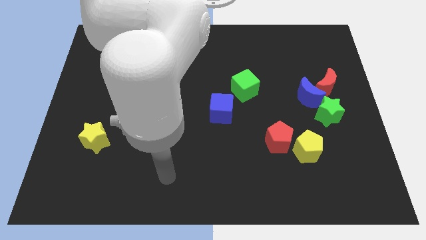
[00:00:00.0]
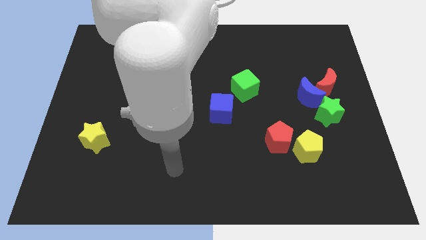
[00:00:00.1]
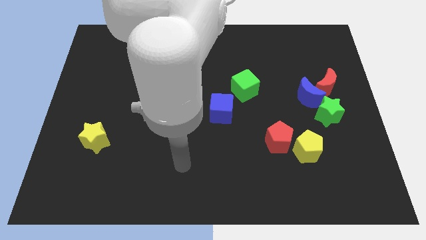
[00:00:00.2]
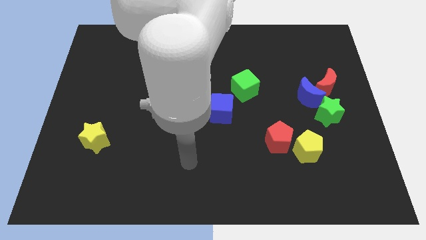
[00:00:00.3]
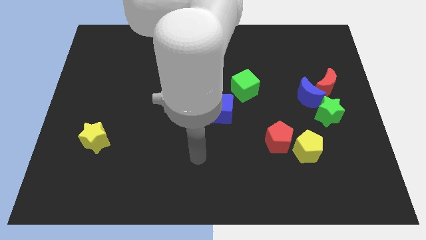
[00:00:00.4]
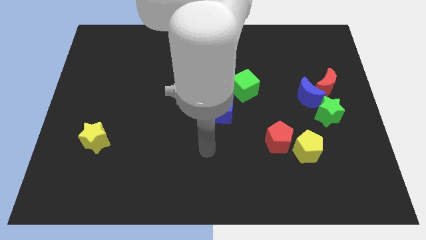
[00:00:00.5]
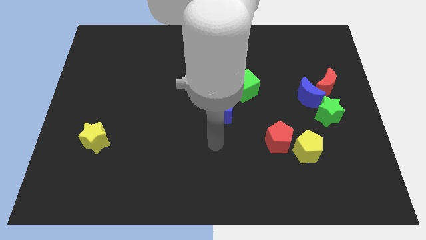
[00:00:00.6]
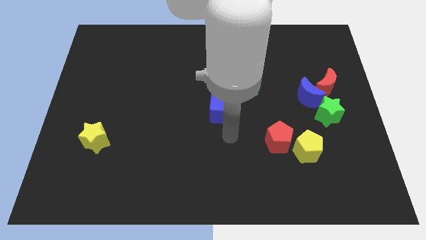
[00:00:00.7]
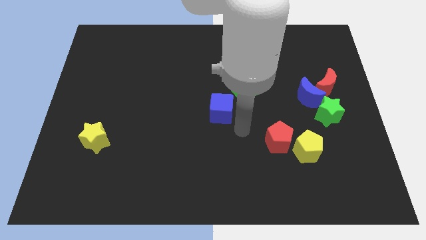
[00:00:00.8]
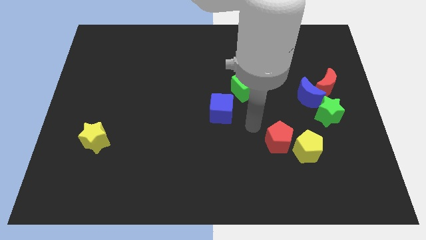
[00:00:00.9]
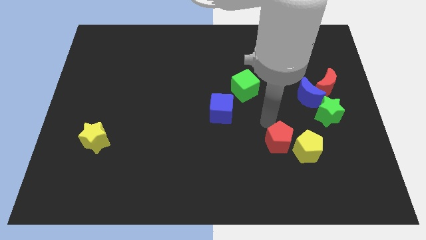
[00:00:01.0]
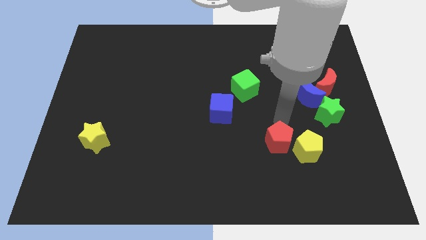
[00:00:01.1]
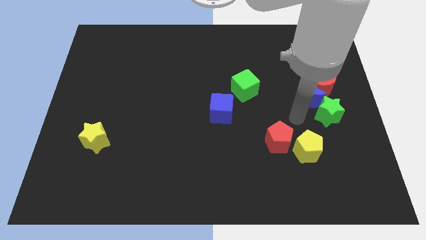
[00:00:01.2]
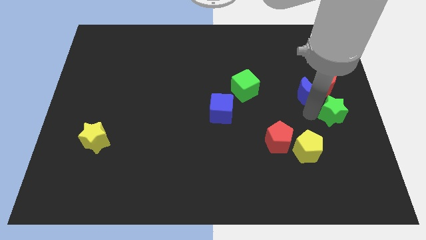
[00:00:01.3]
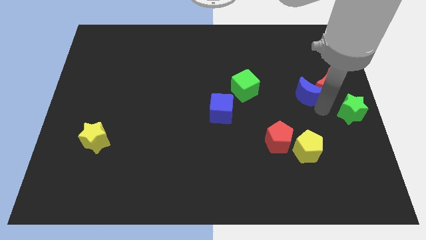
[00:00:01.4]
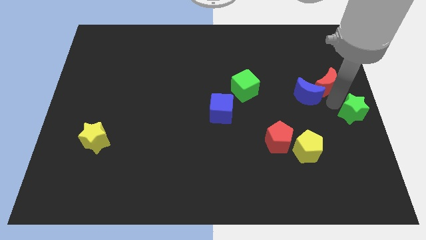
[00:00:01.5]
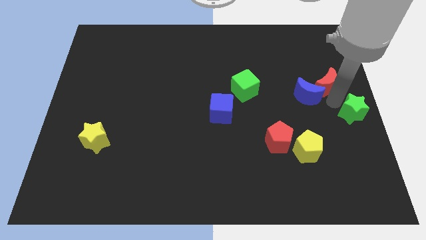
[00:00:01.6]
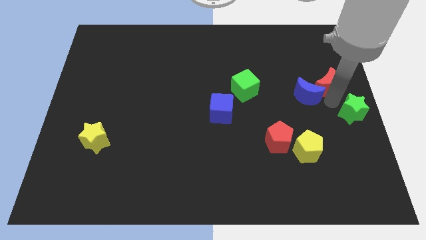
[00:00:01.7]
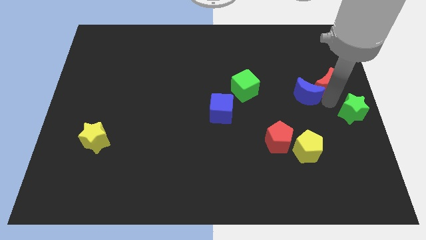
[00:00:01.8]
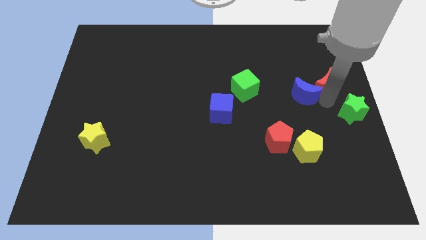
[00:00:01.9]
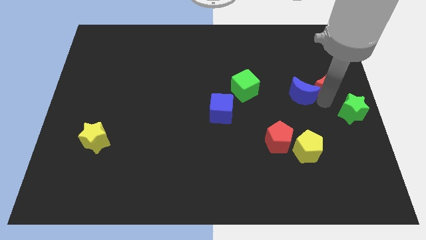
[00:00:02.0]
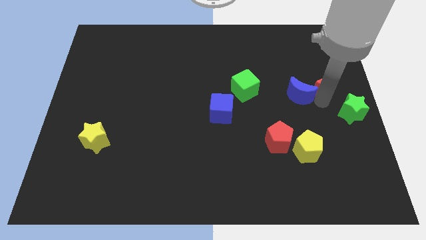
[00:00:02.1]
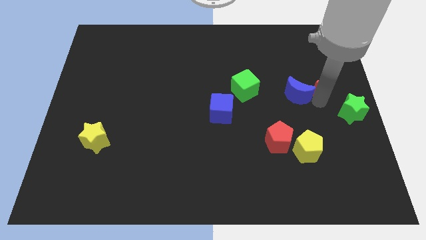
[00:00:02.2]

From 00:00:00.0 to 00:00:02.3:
pull the blue moon apart from the red moon and green star

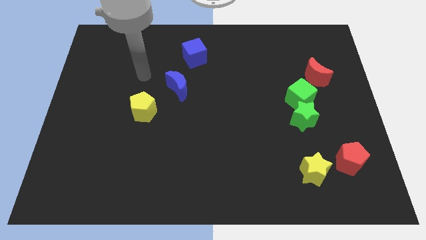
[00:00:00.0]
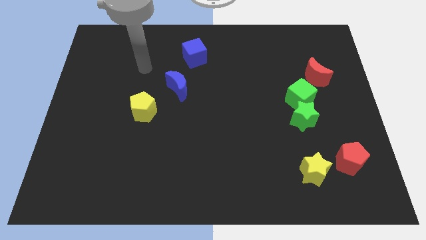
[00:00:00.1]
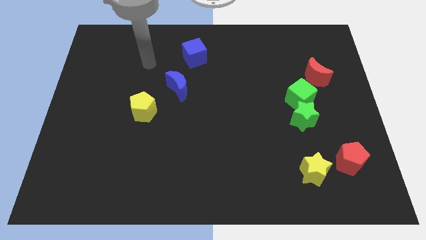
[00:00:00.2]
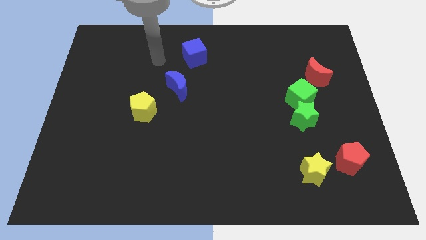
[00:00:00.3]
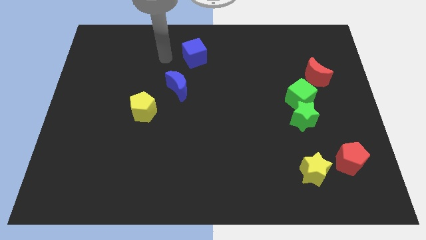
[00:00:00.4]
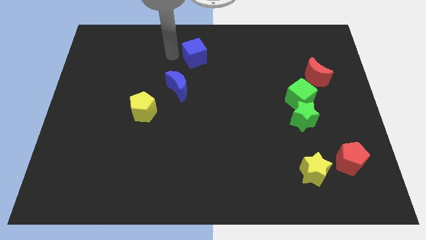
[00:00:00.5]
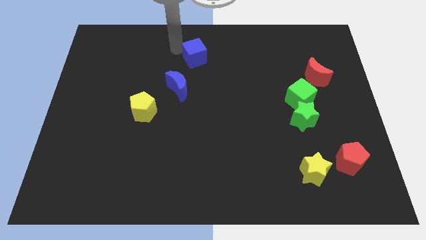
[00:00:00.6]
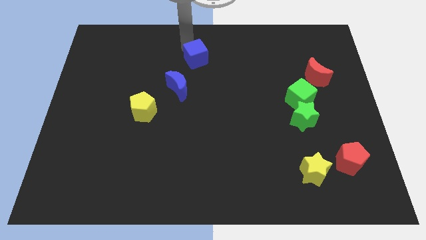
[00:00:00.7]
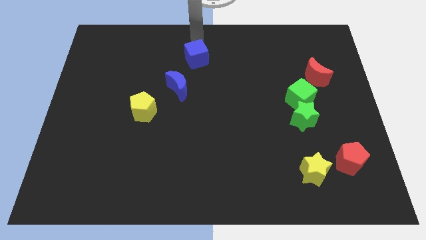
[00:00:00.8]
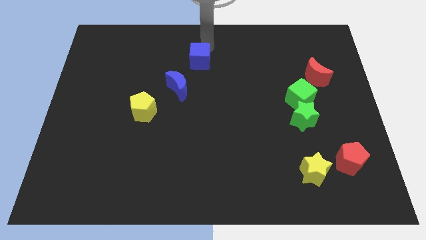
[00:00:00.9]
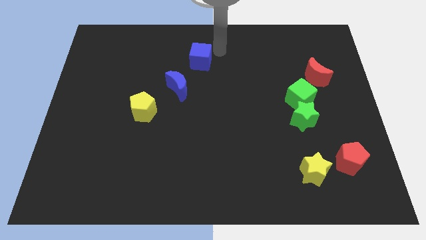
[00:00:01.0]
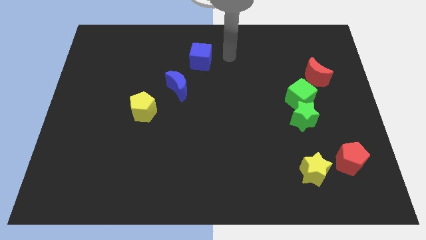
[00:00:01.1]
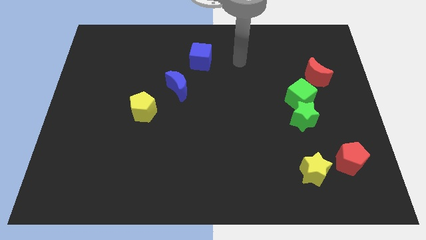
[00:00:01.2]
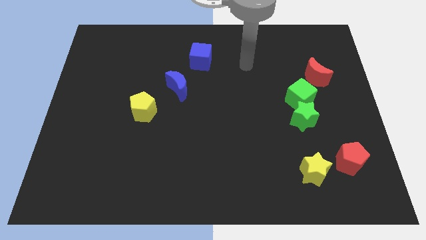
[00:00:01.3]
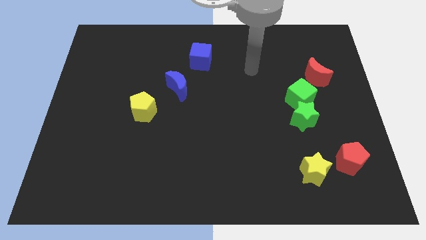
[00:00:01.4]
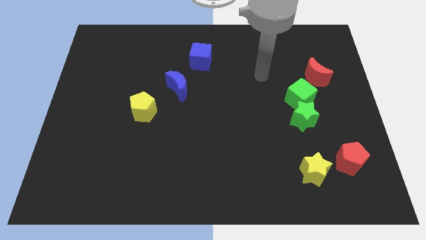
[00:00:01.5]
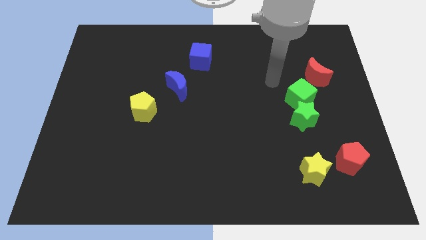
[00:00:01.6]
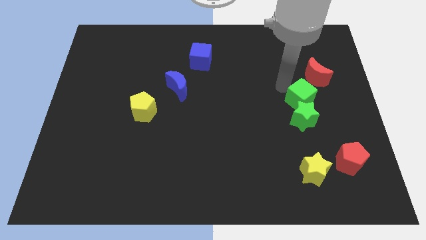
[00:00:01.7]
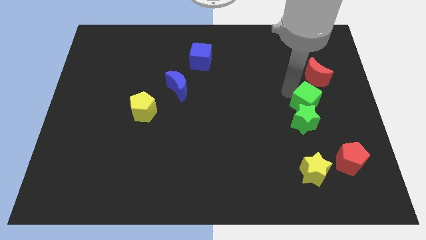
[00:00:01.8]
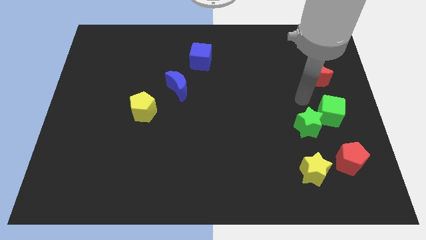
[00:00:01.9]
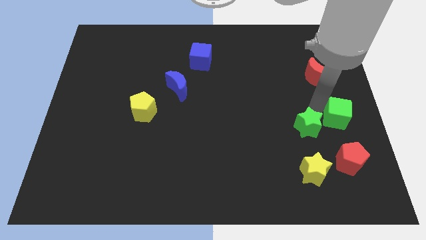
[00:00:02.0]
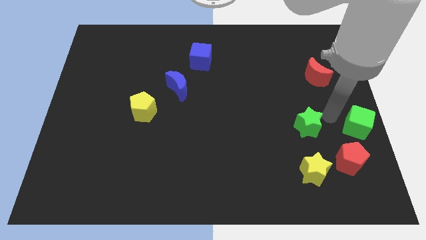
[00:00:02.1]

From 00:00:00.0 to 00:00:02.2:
move the green star away from the green cube

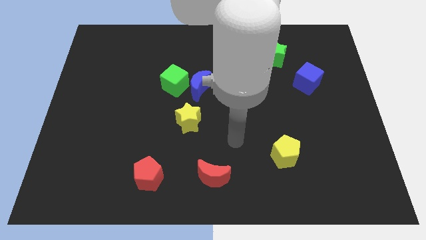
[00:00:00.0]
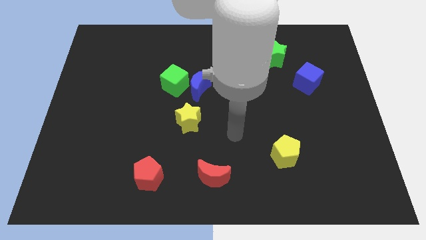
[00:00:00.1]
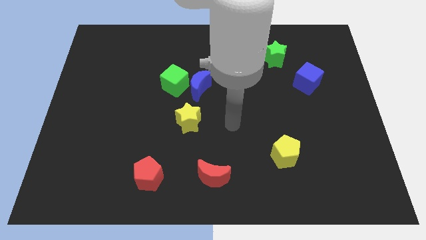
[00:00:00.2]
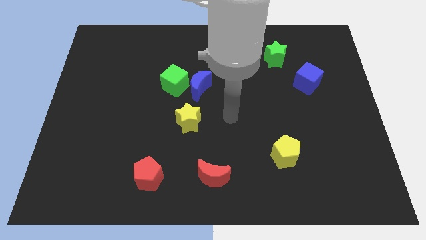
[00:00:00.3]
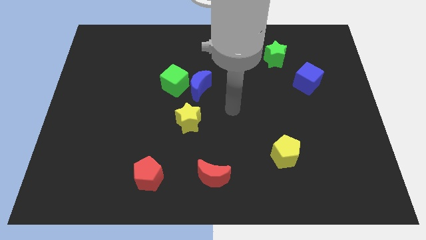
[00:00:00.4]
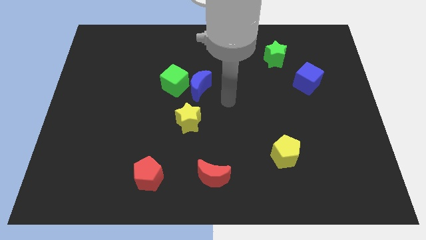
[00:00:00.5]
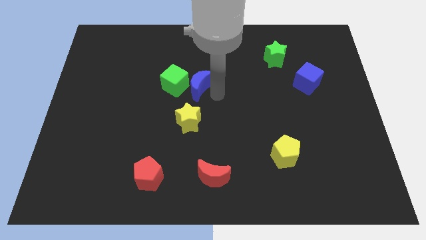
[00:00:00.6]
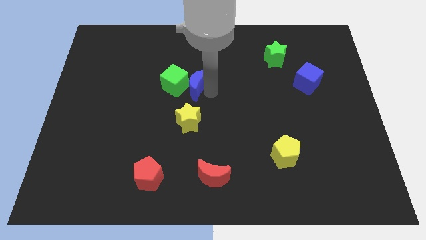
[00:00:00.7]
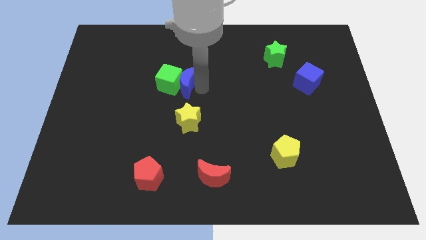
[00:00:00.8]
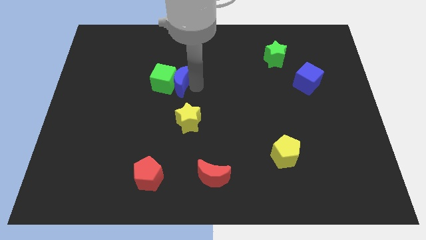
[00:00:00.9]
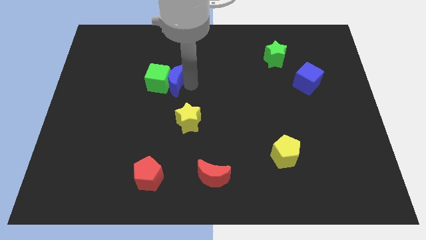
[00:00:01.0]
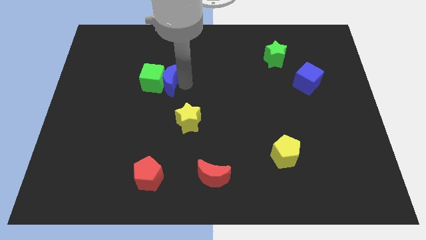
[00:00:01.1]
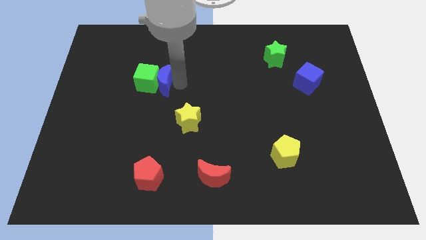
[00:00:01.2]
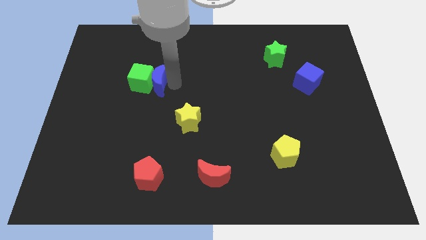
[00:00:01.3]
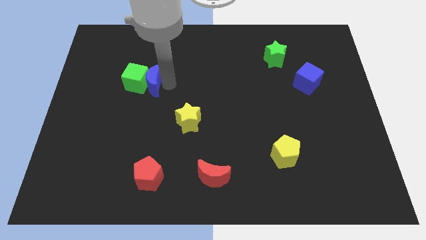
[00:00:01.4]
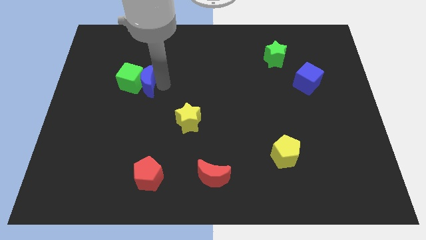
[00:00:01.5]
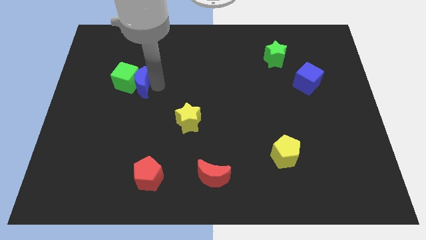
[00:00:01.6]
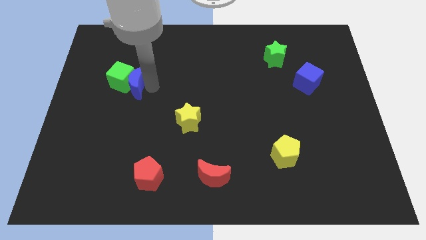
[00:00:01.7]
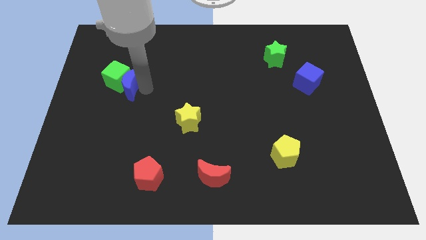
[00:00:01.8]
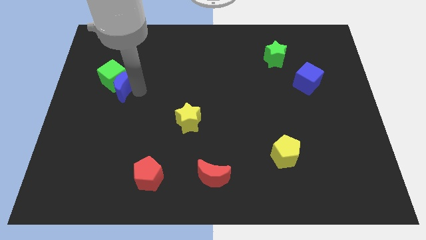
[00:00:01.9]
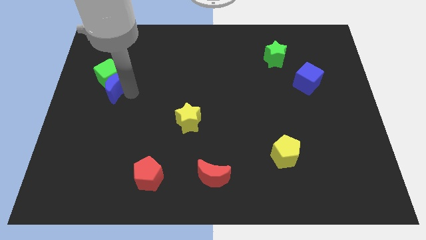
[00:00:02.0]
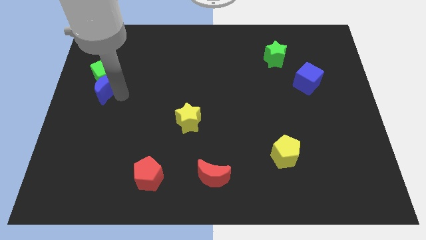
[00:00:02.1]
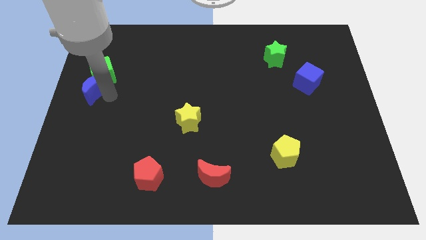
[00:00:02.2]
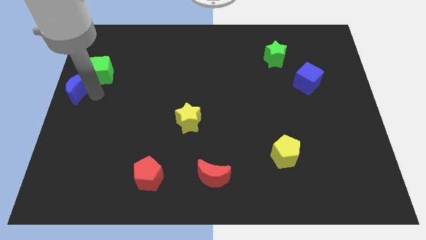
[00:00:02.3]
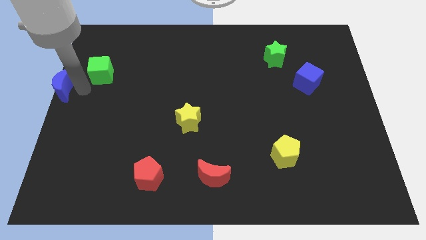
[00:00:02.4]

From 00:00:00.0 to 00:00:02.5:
pull the green cube apart from the blue moon

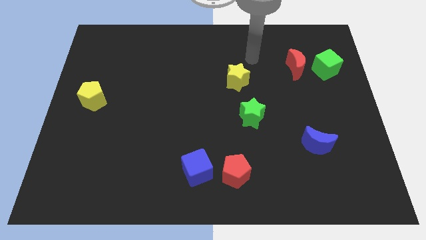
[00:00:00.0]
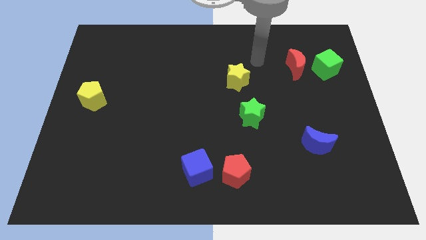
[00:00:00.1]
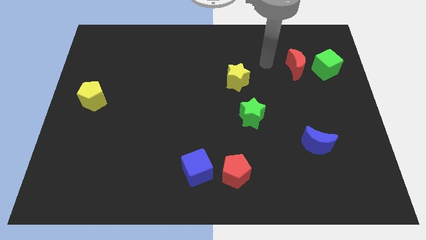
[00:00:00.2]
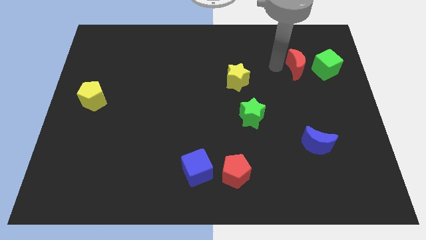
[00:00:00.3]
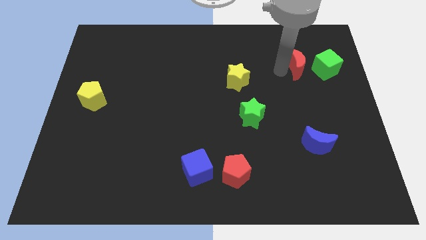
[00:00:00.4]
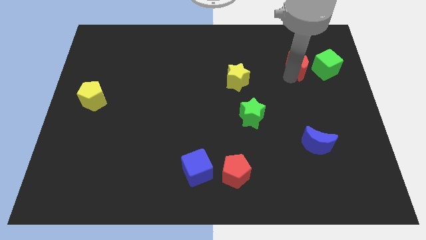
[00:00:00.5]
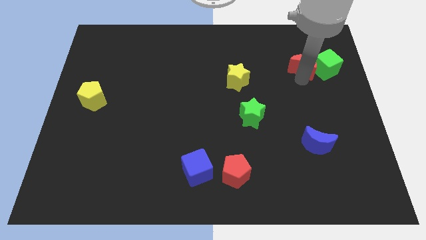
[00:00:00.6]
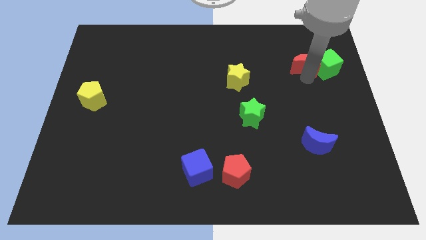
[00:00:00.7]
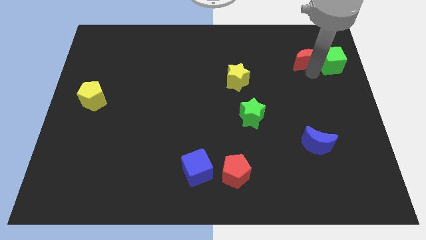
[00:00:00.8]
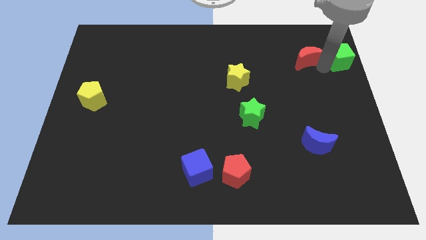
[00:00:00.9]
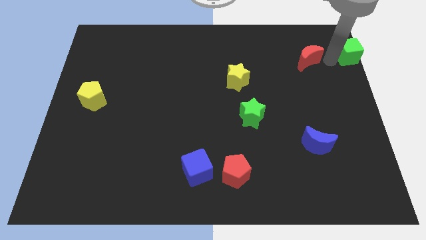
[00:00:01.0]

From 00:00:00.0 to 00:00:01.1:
move the red moon away from the green cube

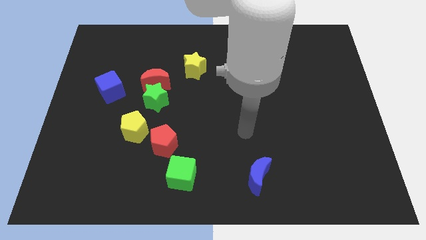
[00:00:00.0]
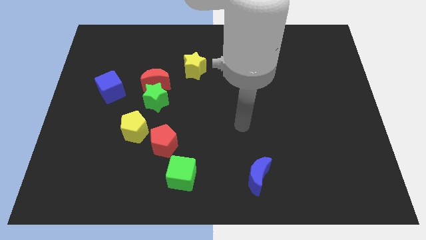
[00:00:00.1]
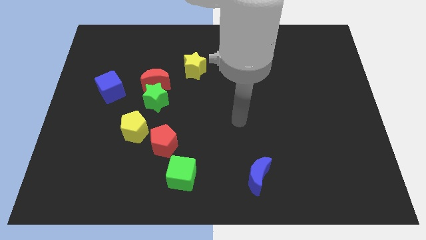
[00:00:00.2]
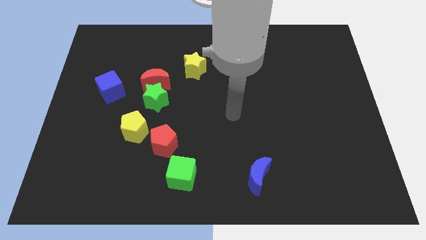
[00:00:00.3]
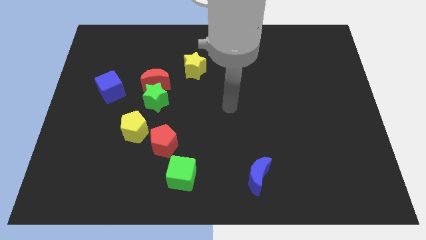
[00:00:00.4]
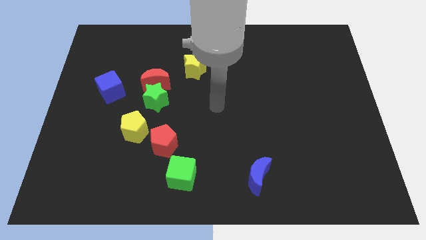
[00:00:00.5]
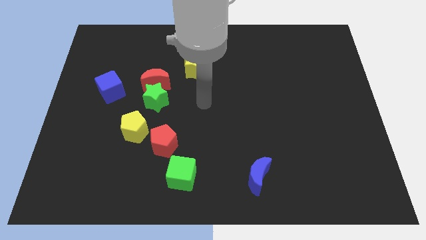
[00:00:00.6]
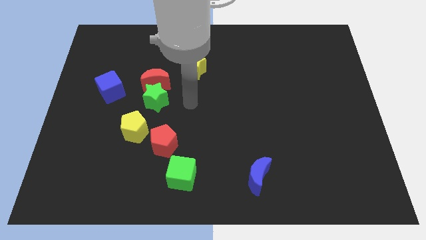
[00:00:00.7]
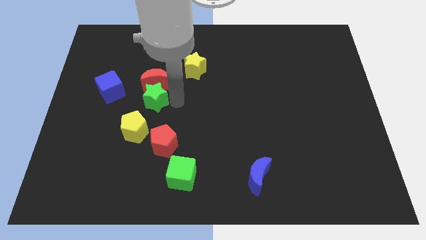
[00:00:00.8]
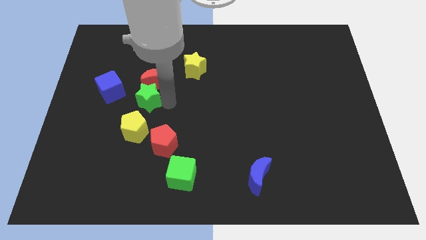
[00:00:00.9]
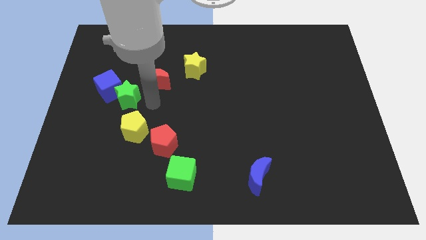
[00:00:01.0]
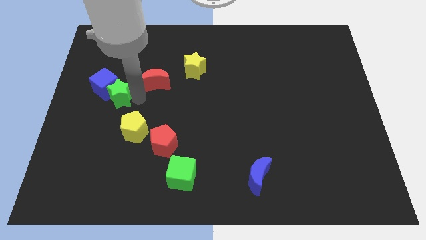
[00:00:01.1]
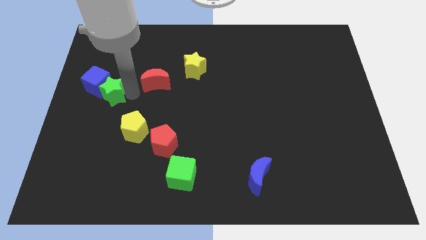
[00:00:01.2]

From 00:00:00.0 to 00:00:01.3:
move the red moon away from the green star

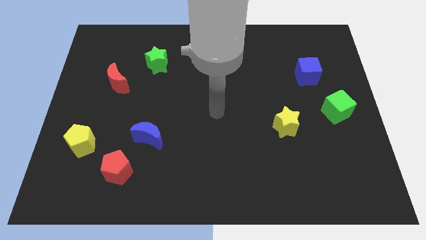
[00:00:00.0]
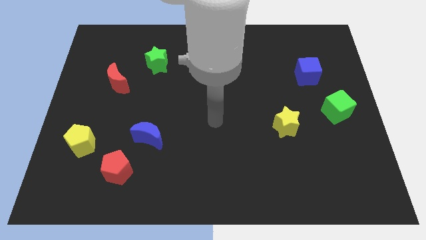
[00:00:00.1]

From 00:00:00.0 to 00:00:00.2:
move the red pentagon away from the blue moon
